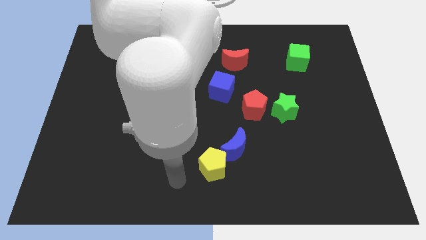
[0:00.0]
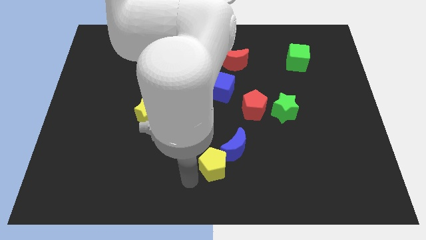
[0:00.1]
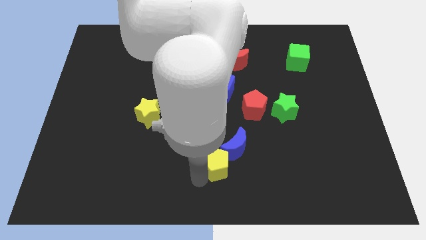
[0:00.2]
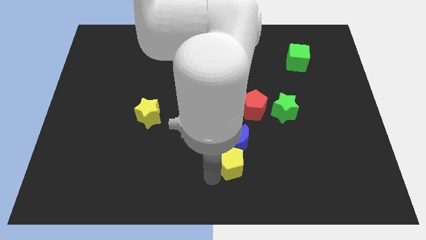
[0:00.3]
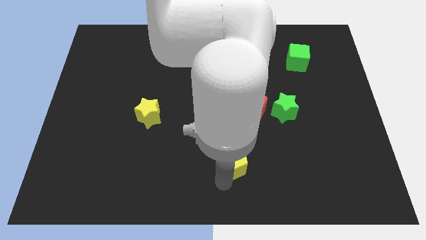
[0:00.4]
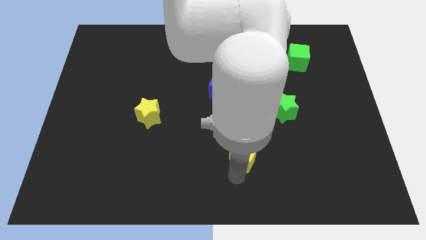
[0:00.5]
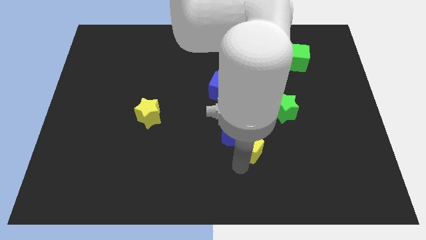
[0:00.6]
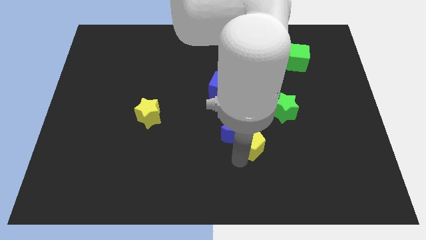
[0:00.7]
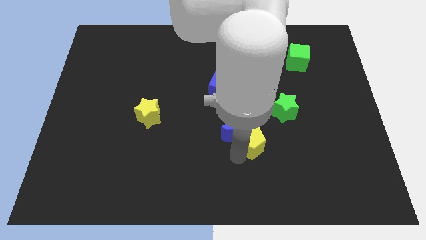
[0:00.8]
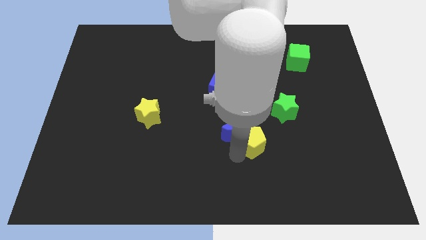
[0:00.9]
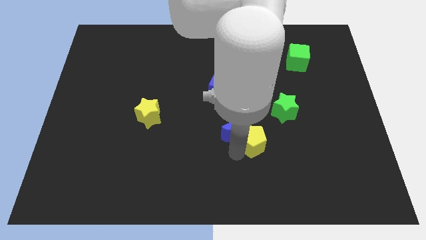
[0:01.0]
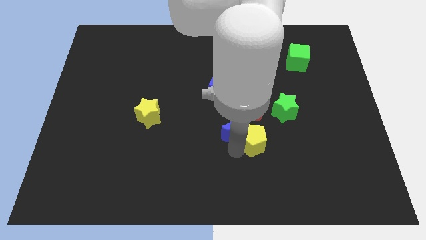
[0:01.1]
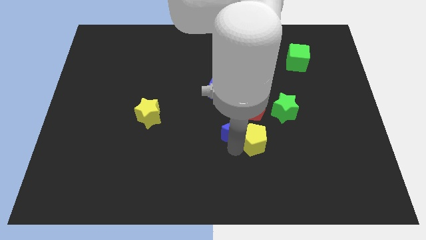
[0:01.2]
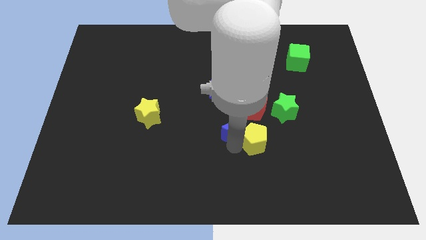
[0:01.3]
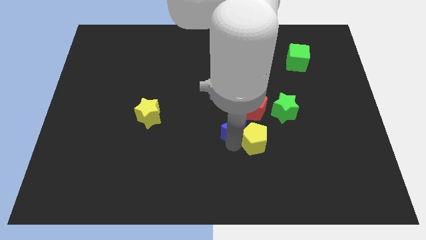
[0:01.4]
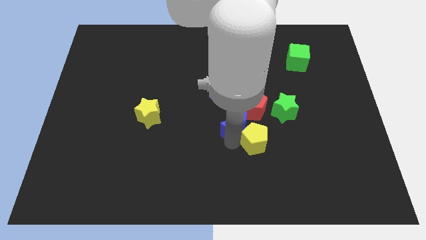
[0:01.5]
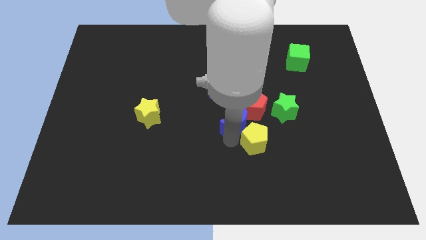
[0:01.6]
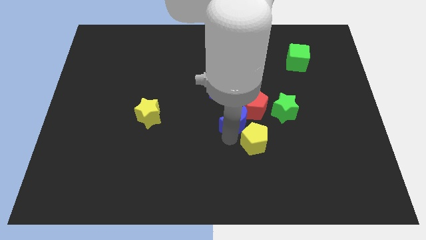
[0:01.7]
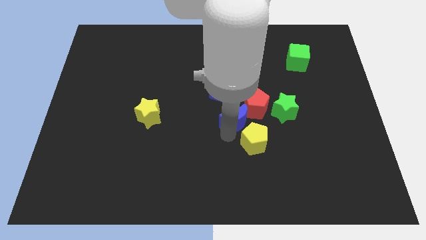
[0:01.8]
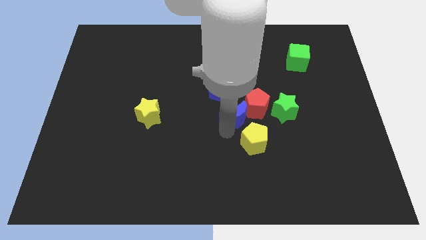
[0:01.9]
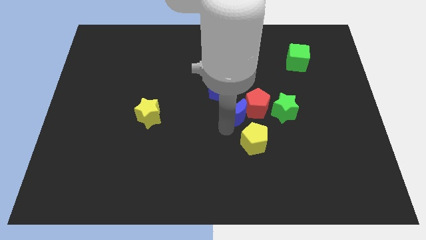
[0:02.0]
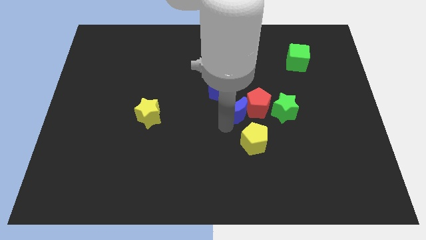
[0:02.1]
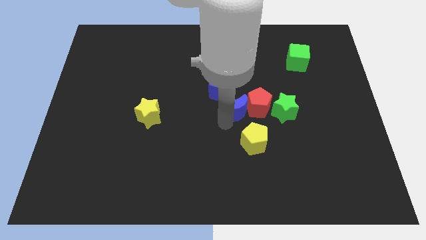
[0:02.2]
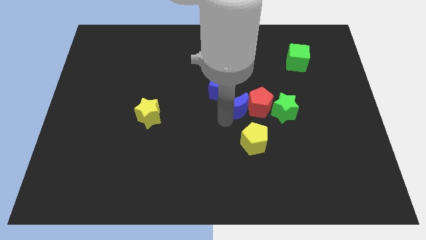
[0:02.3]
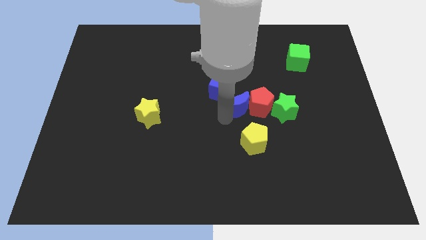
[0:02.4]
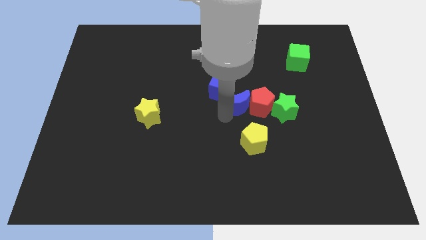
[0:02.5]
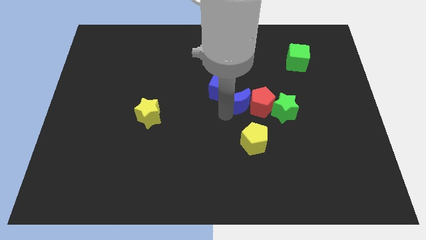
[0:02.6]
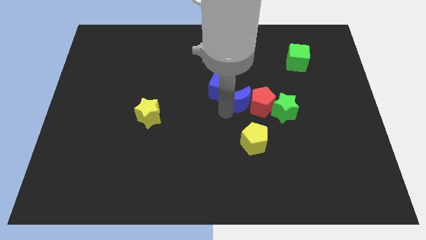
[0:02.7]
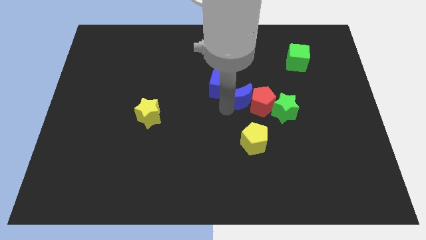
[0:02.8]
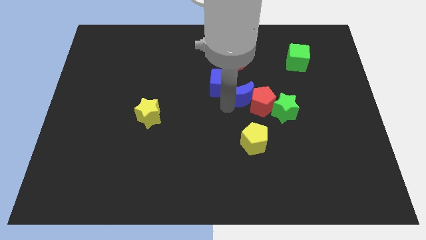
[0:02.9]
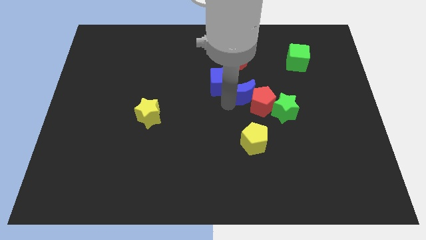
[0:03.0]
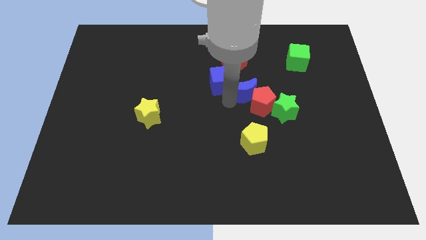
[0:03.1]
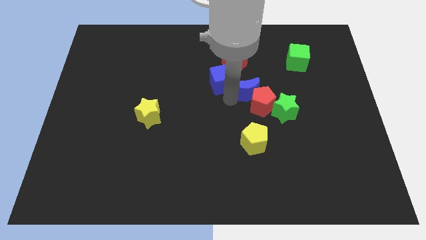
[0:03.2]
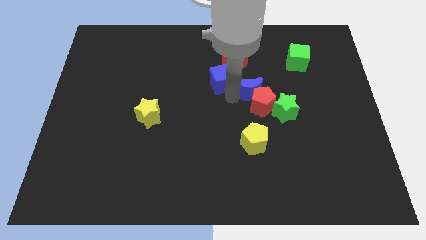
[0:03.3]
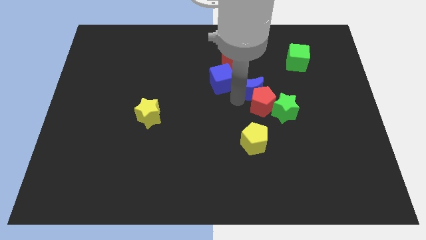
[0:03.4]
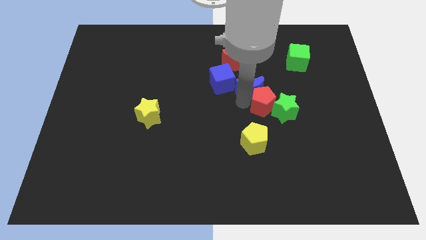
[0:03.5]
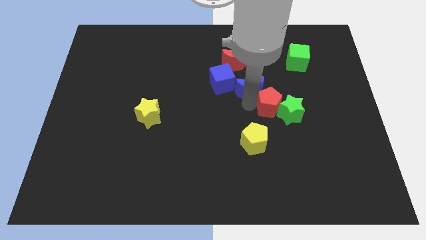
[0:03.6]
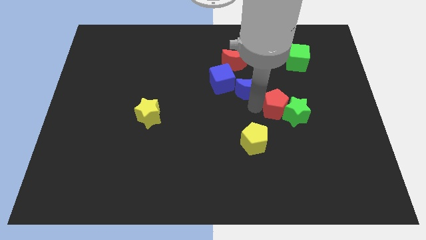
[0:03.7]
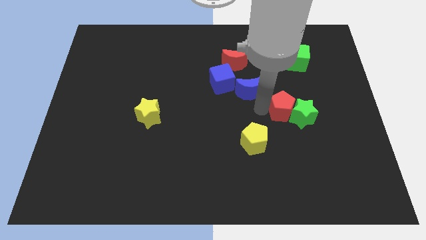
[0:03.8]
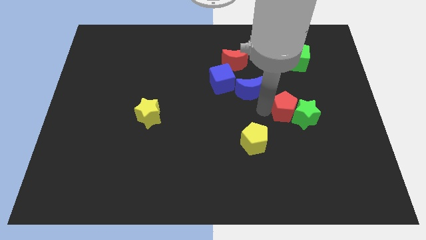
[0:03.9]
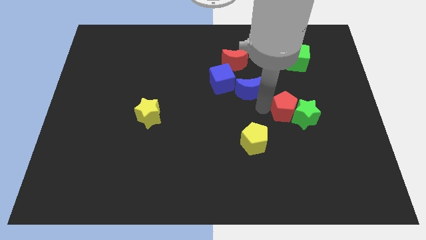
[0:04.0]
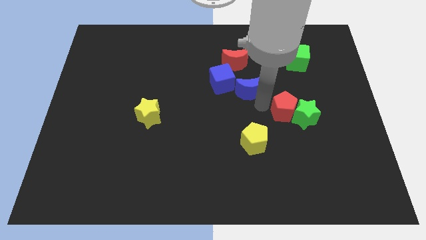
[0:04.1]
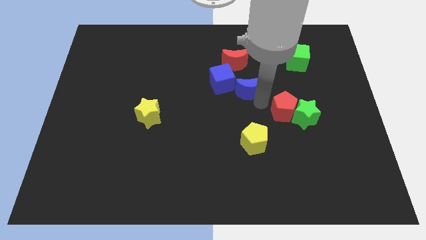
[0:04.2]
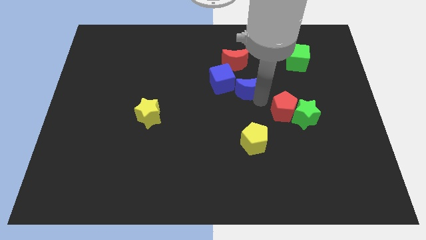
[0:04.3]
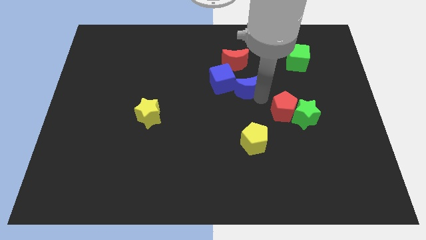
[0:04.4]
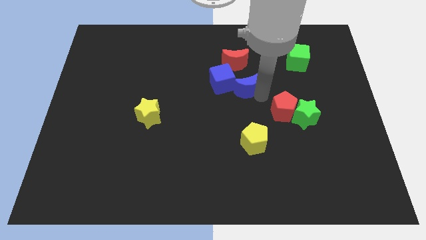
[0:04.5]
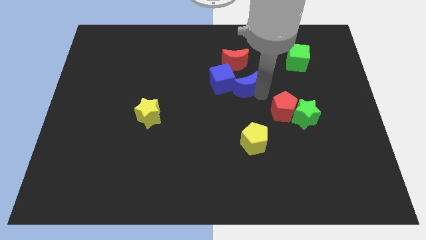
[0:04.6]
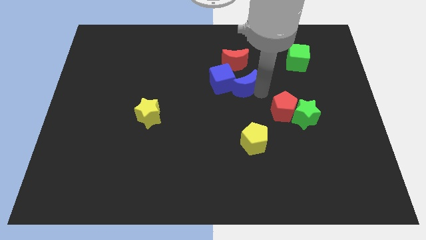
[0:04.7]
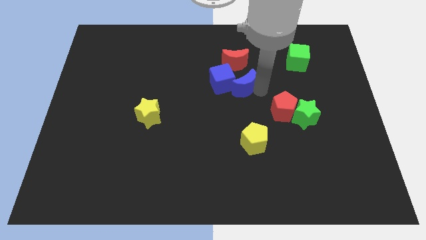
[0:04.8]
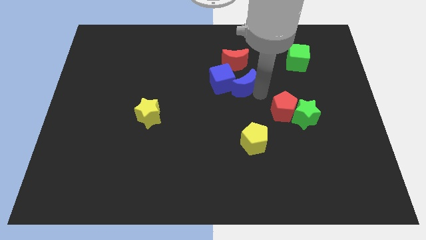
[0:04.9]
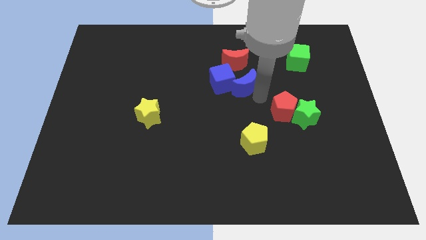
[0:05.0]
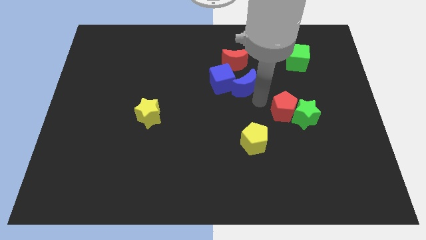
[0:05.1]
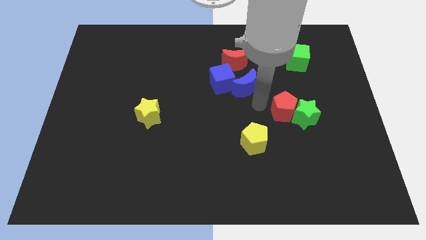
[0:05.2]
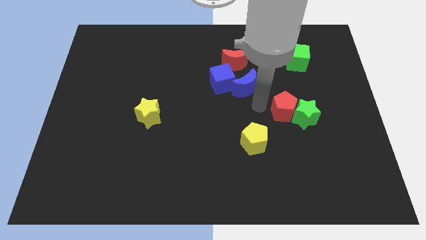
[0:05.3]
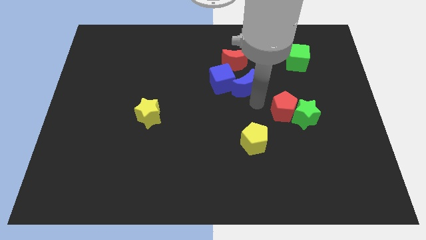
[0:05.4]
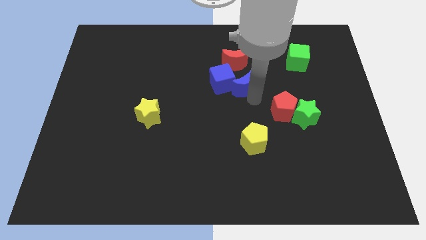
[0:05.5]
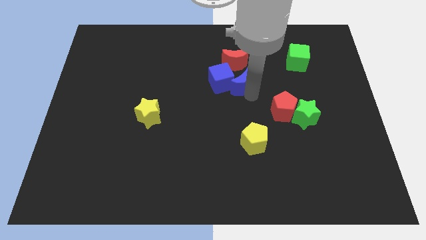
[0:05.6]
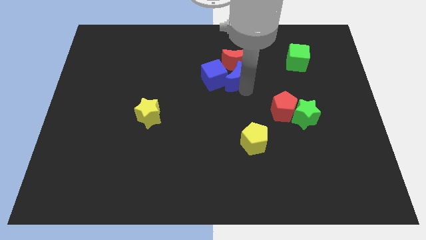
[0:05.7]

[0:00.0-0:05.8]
push the blue moon next to the red moon

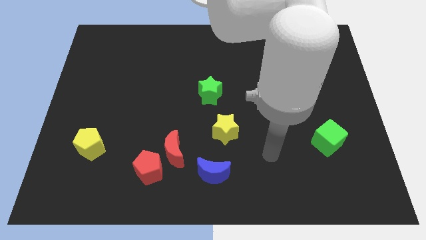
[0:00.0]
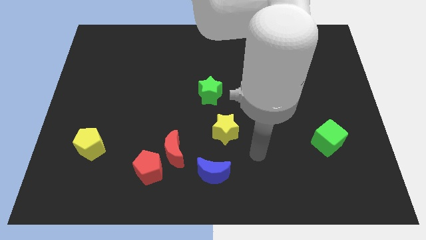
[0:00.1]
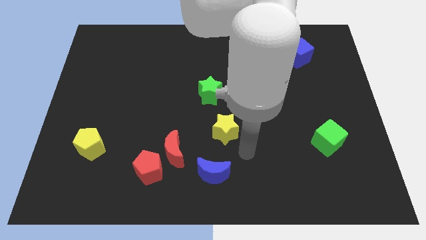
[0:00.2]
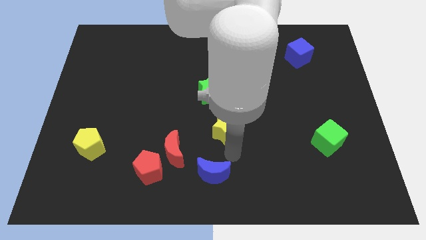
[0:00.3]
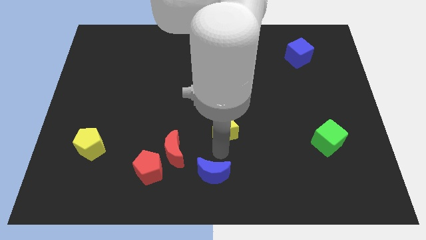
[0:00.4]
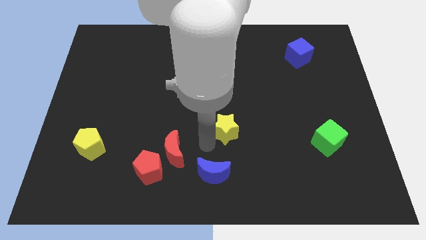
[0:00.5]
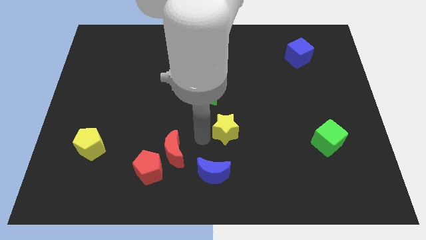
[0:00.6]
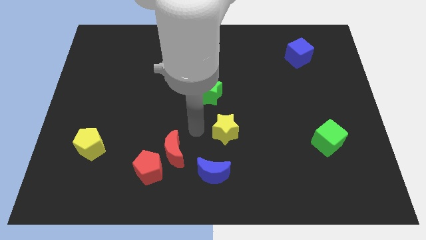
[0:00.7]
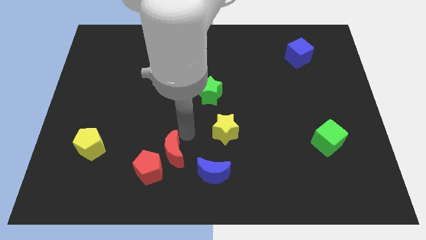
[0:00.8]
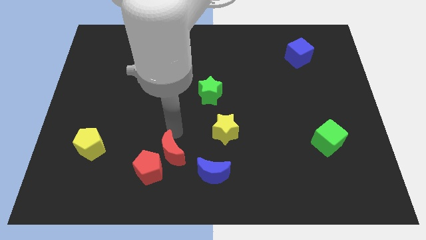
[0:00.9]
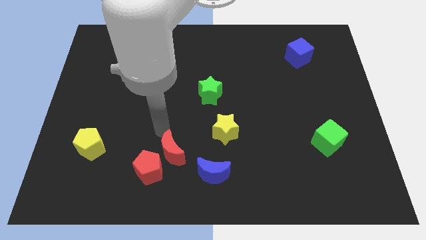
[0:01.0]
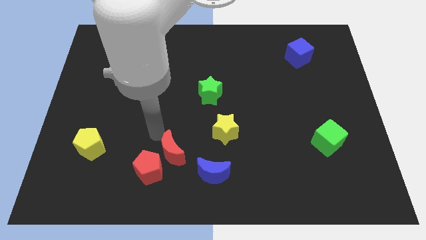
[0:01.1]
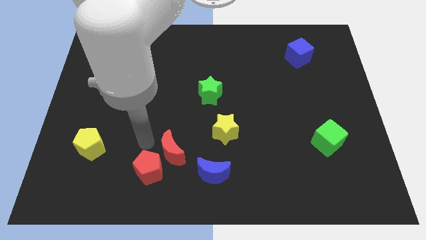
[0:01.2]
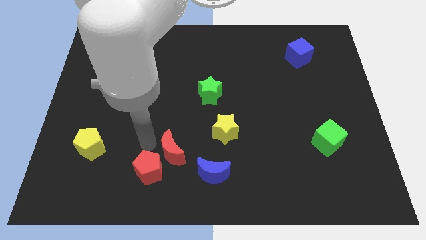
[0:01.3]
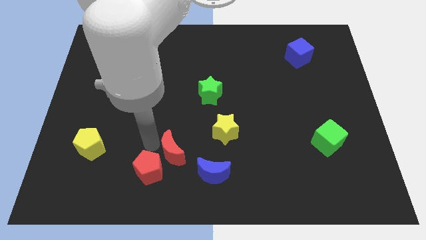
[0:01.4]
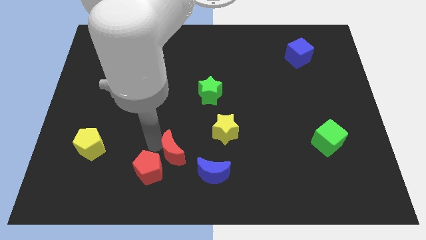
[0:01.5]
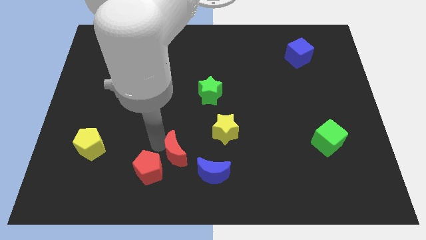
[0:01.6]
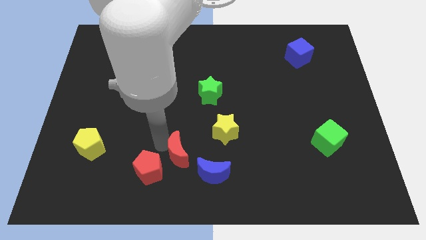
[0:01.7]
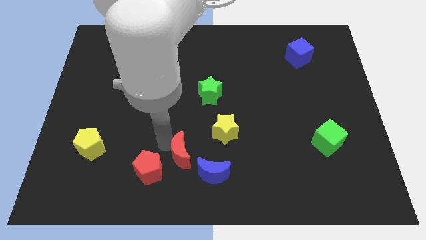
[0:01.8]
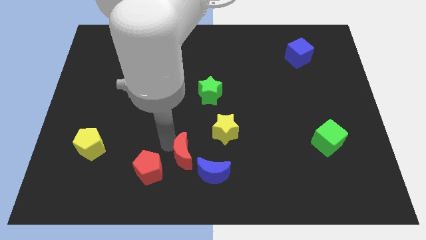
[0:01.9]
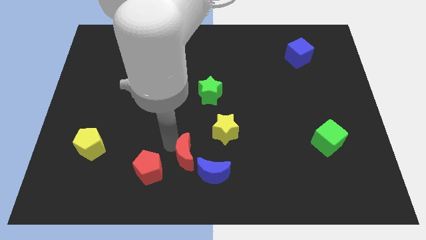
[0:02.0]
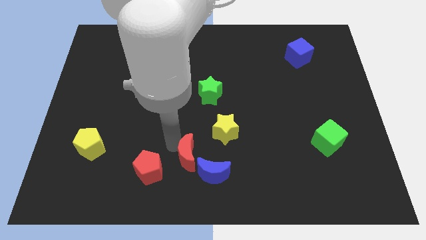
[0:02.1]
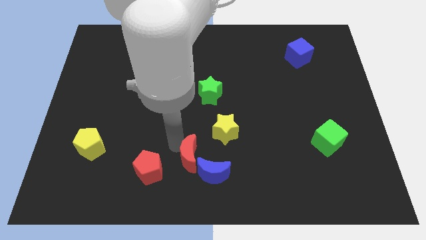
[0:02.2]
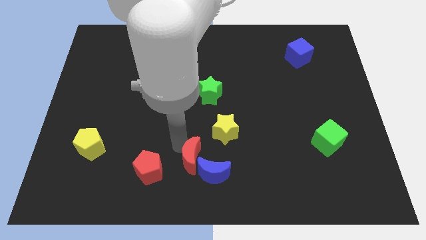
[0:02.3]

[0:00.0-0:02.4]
slide the red moon towards the blue moon
